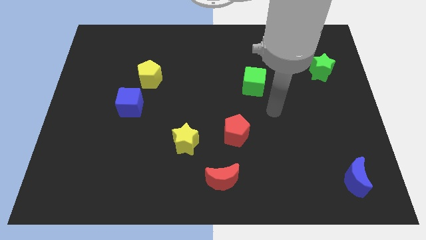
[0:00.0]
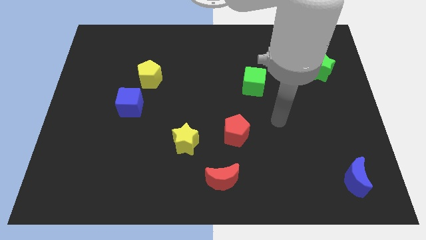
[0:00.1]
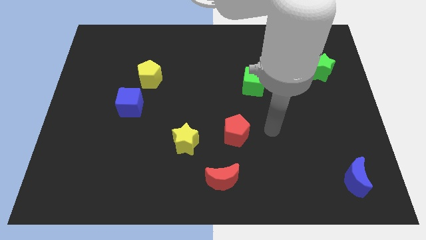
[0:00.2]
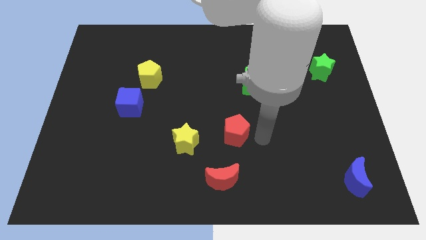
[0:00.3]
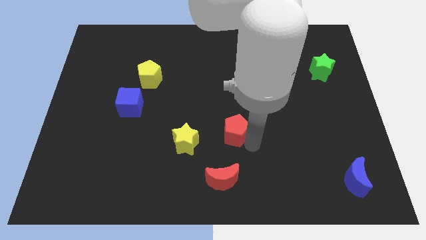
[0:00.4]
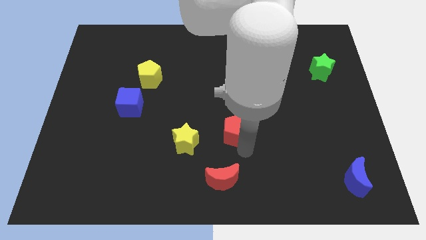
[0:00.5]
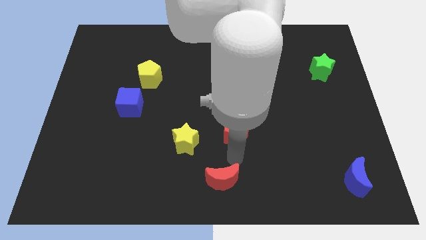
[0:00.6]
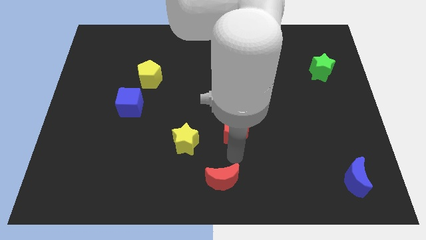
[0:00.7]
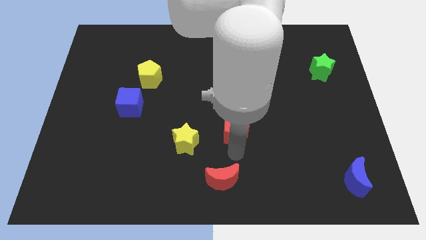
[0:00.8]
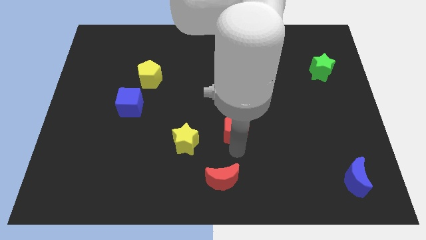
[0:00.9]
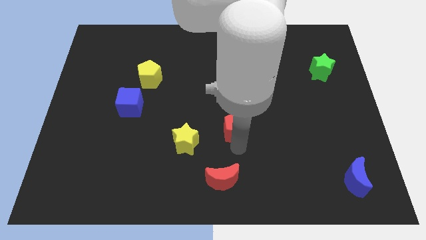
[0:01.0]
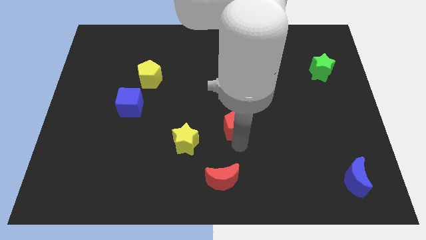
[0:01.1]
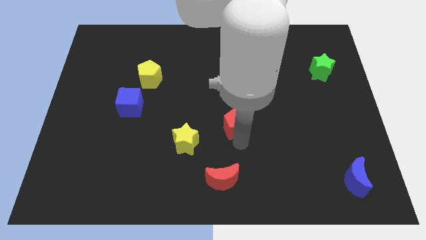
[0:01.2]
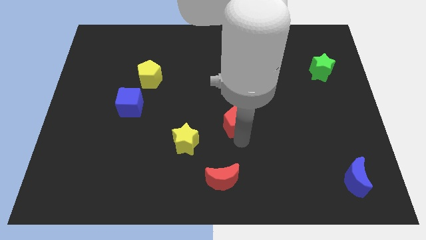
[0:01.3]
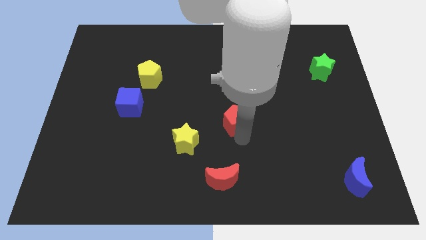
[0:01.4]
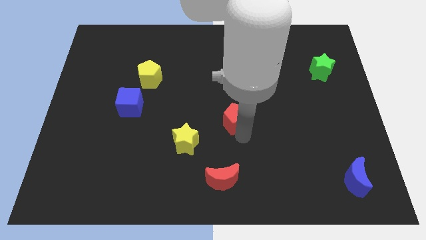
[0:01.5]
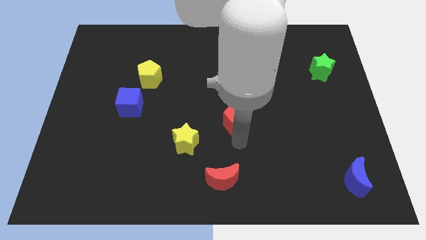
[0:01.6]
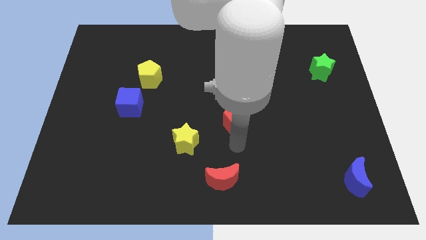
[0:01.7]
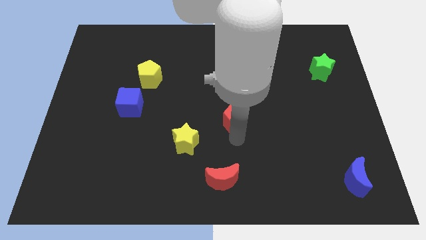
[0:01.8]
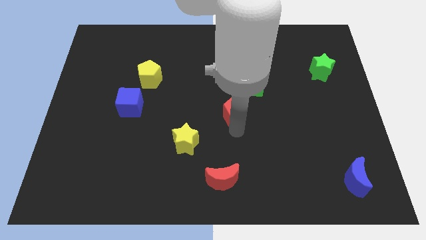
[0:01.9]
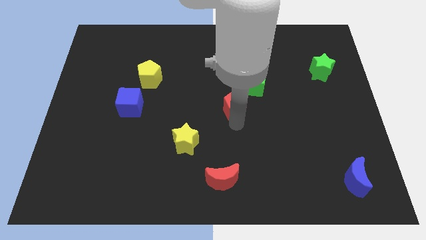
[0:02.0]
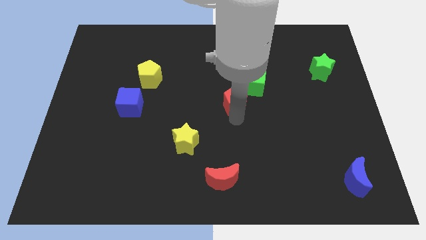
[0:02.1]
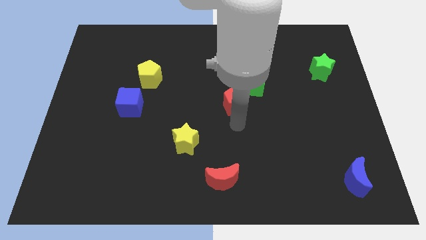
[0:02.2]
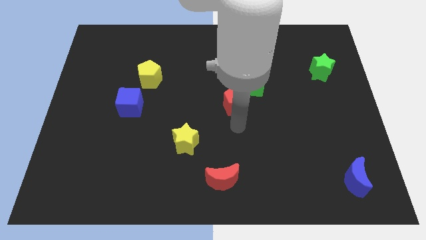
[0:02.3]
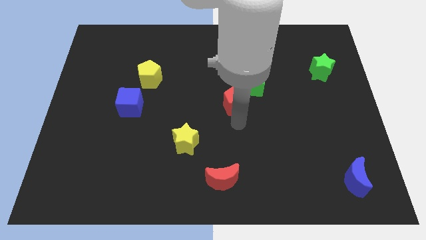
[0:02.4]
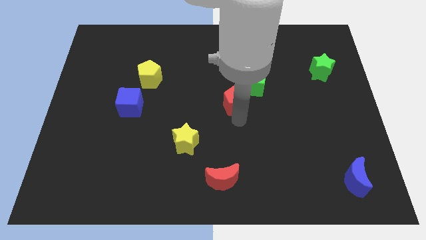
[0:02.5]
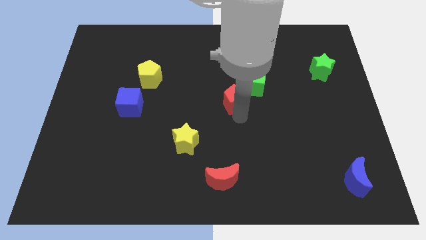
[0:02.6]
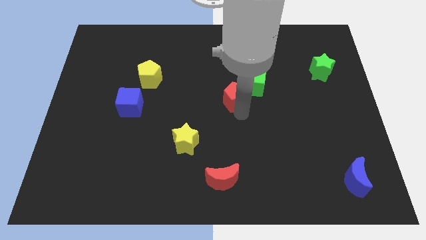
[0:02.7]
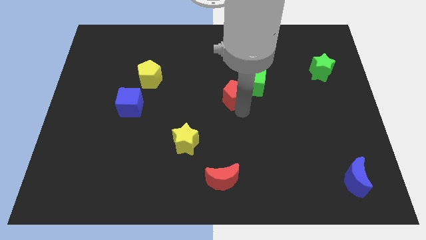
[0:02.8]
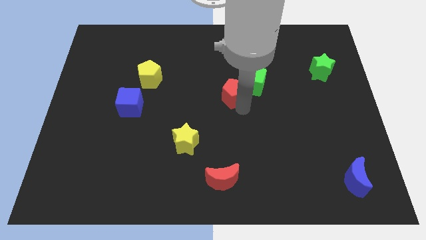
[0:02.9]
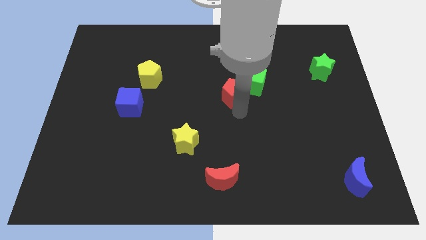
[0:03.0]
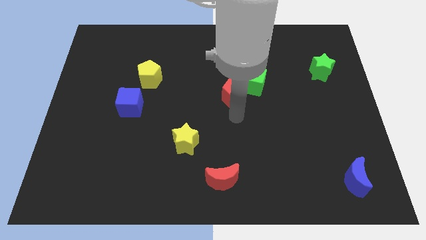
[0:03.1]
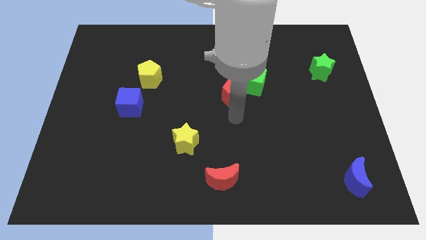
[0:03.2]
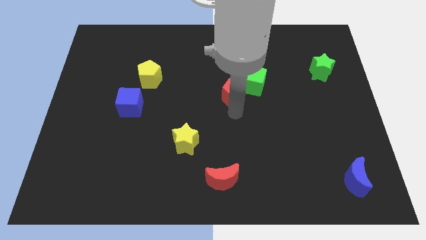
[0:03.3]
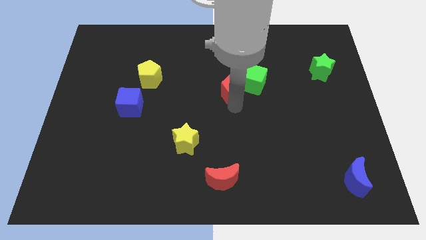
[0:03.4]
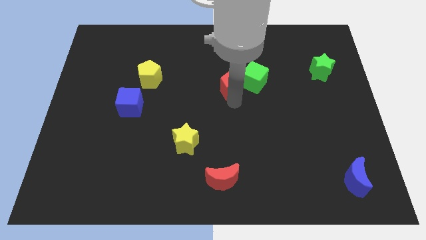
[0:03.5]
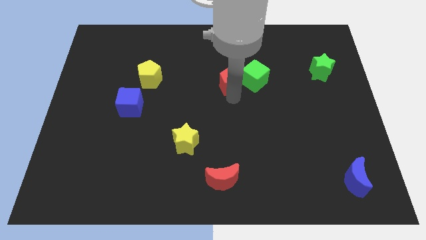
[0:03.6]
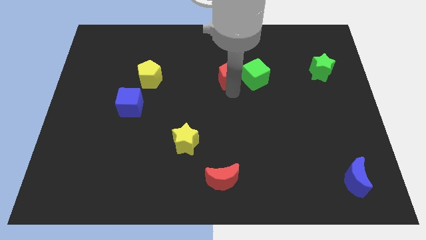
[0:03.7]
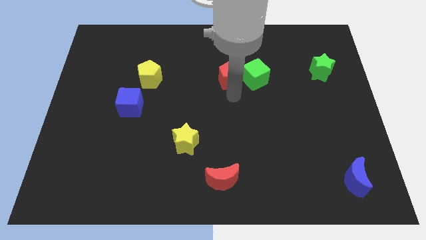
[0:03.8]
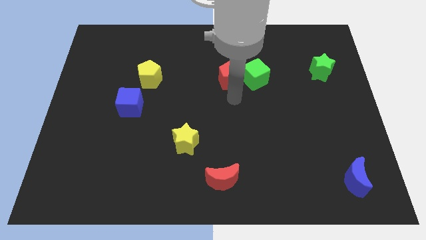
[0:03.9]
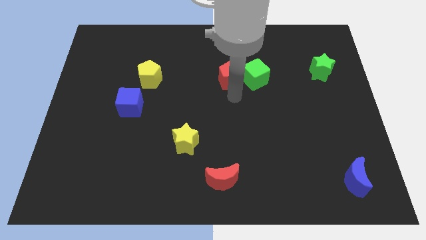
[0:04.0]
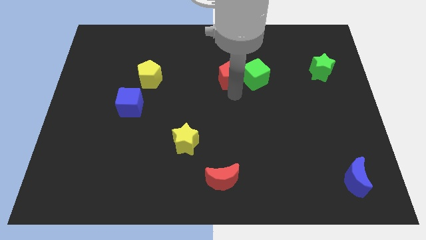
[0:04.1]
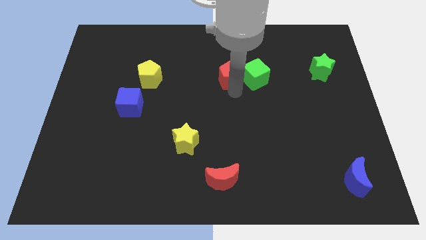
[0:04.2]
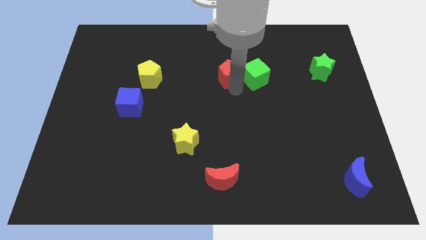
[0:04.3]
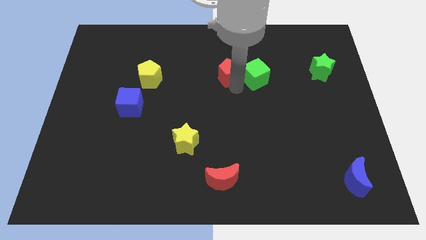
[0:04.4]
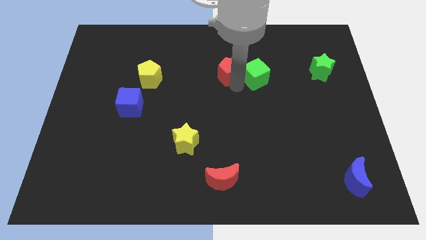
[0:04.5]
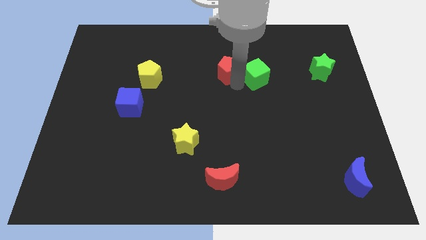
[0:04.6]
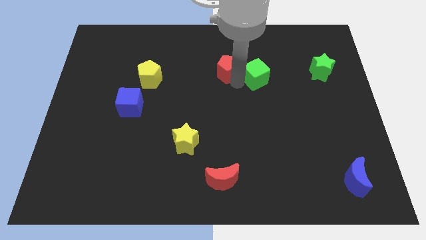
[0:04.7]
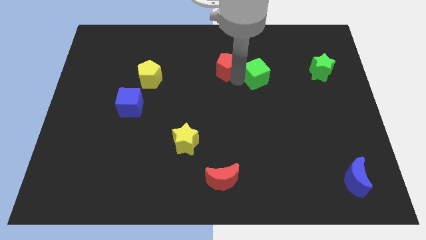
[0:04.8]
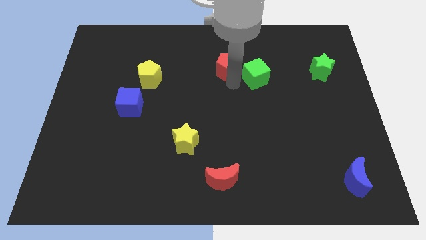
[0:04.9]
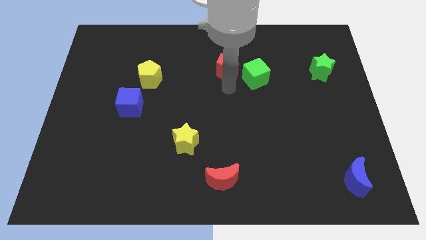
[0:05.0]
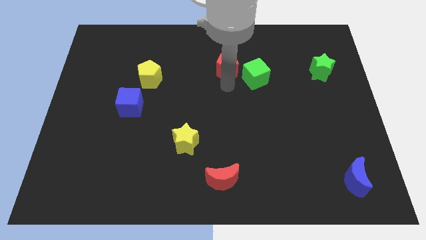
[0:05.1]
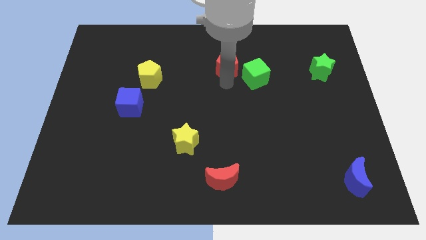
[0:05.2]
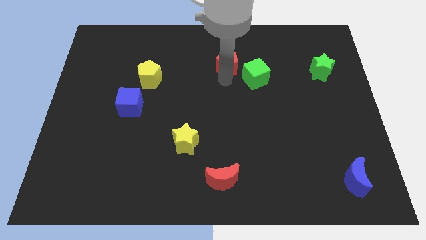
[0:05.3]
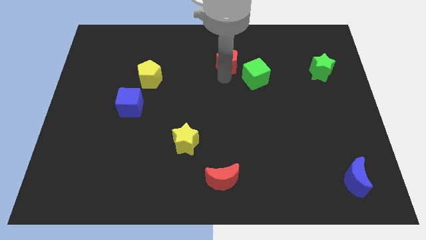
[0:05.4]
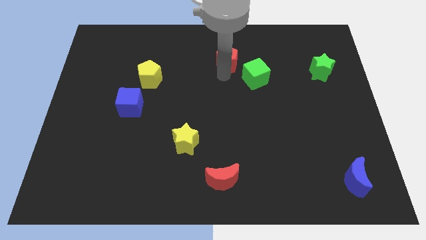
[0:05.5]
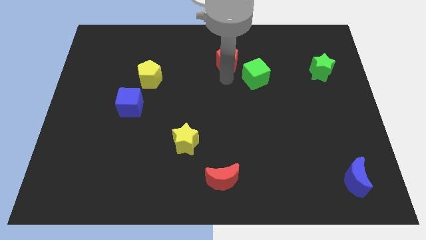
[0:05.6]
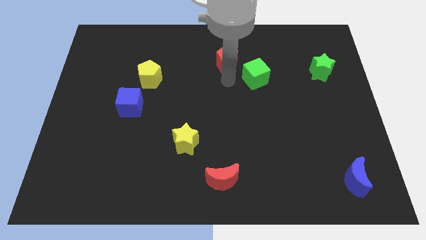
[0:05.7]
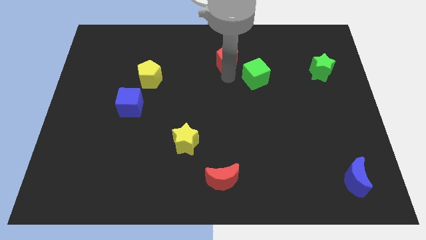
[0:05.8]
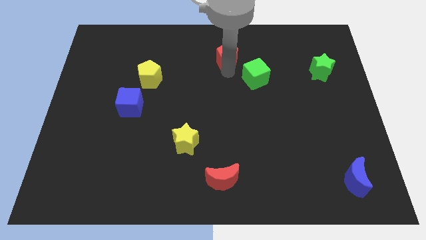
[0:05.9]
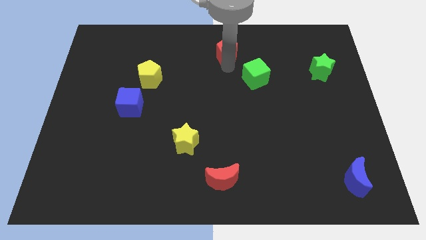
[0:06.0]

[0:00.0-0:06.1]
slide the red pentagon to the towards your base

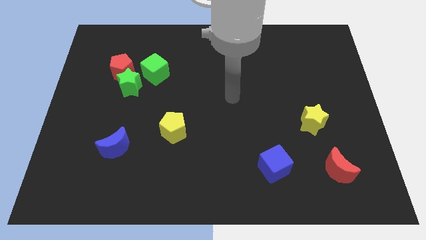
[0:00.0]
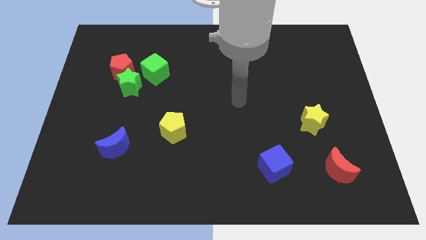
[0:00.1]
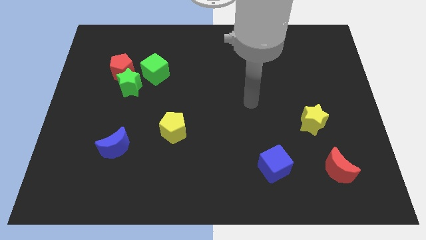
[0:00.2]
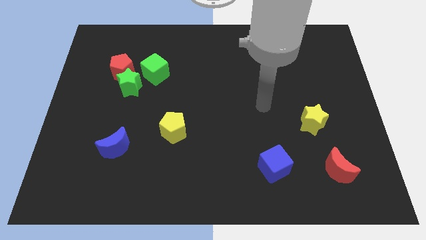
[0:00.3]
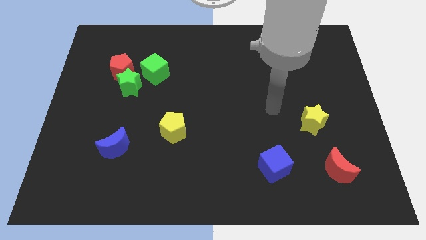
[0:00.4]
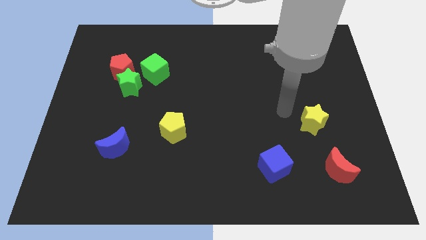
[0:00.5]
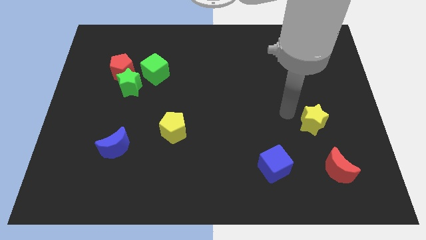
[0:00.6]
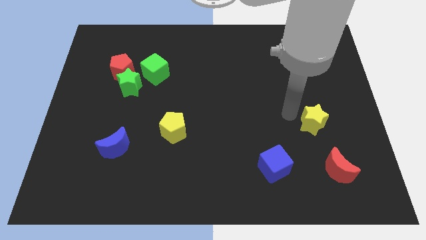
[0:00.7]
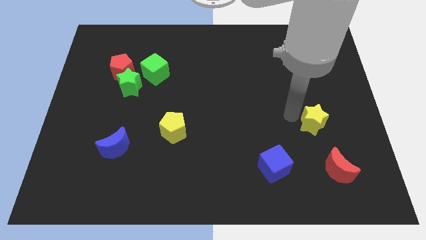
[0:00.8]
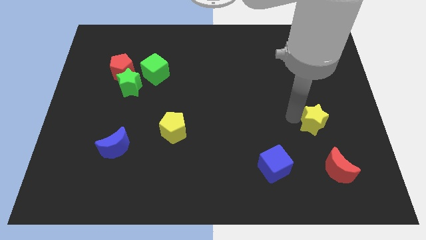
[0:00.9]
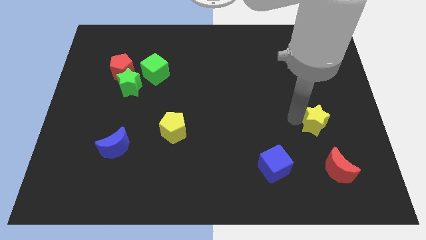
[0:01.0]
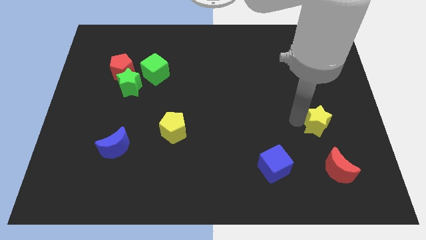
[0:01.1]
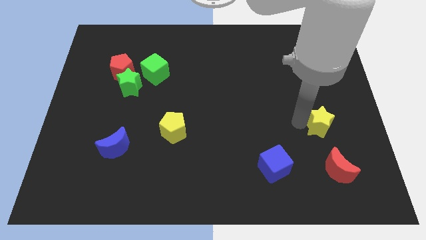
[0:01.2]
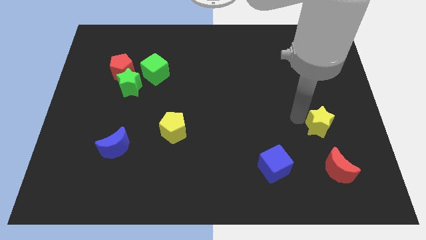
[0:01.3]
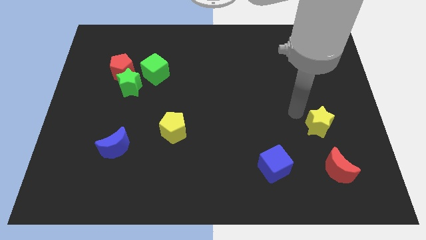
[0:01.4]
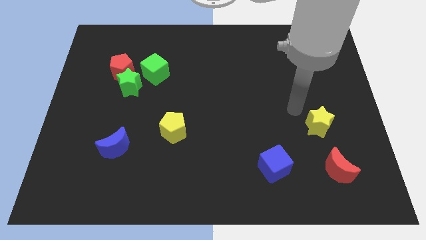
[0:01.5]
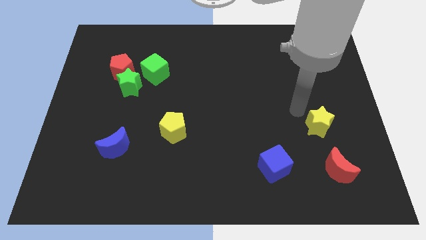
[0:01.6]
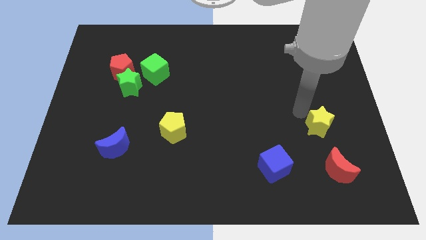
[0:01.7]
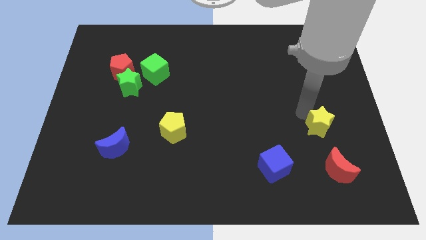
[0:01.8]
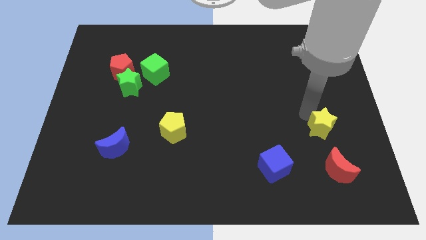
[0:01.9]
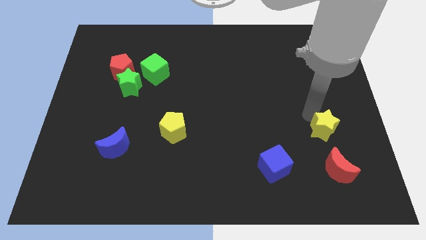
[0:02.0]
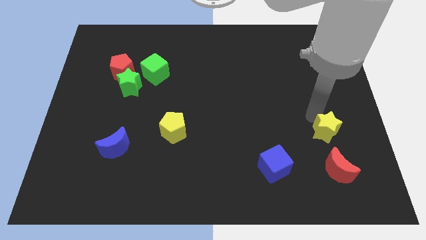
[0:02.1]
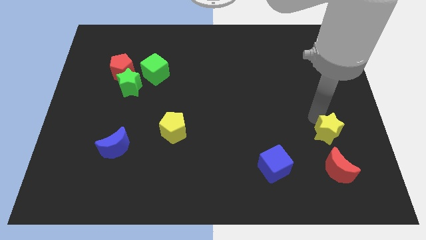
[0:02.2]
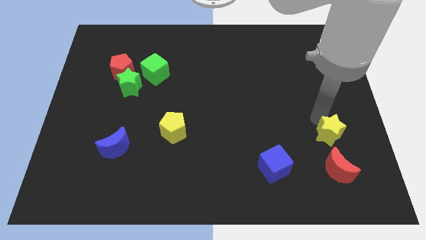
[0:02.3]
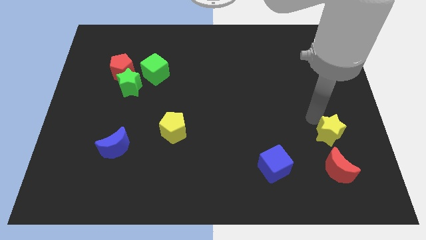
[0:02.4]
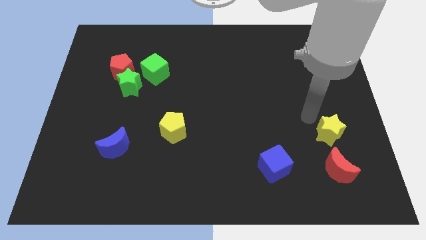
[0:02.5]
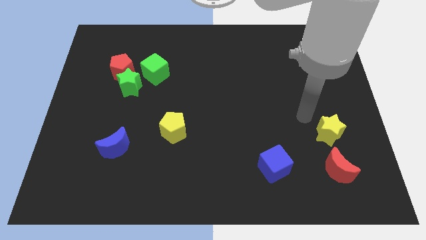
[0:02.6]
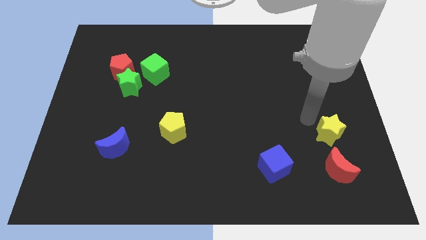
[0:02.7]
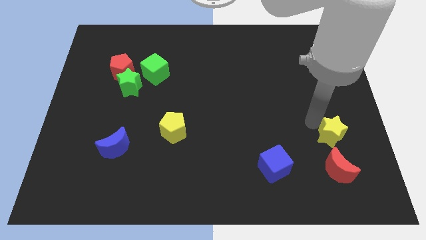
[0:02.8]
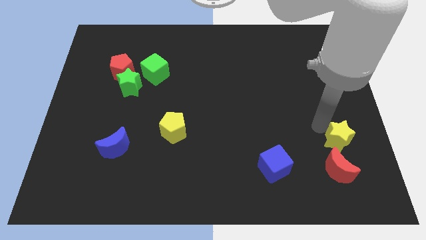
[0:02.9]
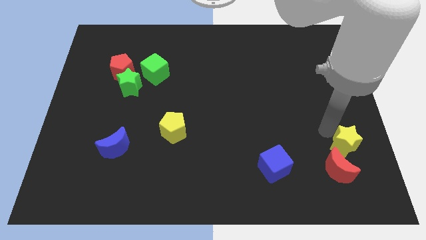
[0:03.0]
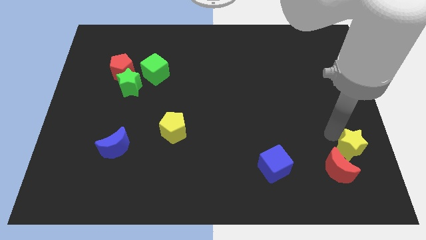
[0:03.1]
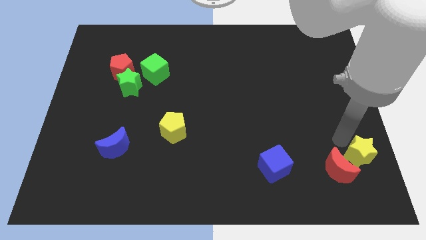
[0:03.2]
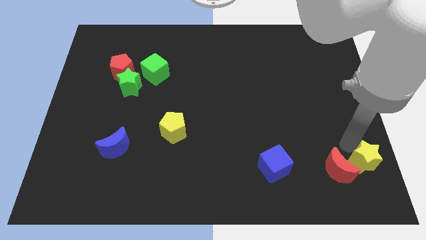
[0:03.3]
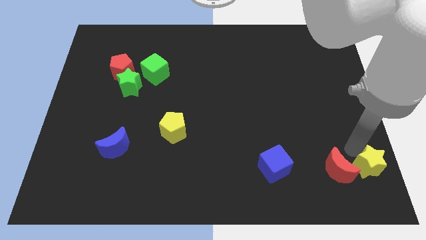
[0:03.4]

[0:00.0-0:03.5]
push the yellow star to the bottom right of the board
